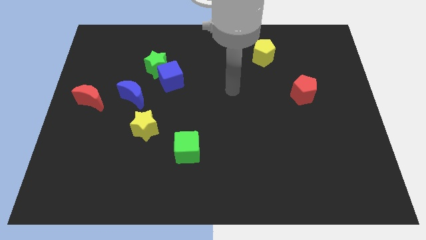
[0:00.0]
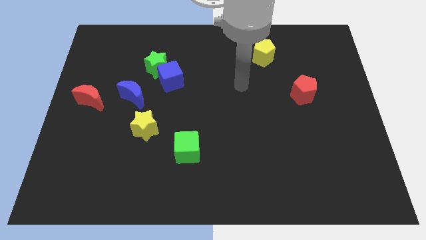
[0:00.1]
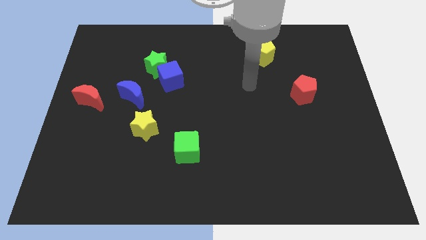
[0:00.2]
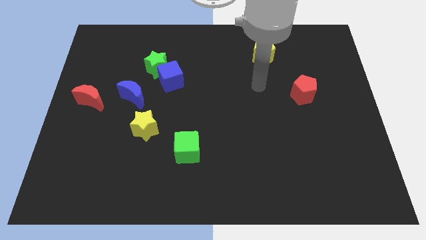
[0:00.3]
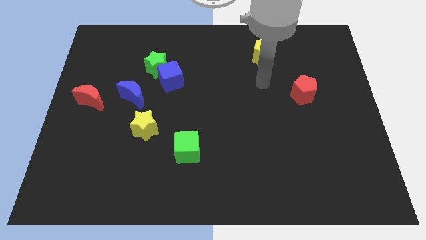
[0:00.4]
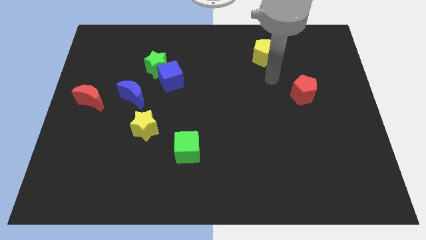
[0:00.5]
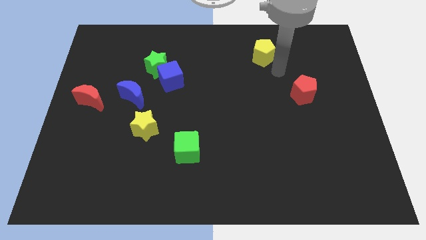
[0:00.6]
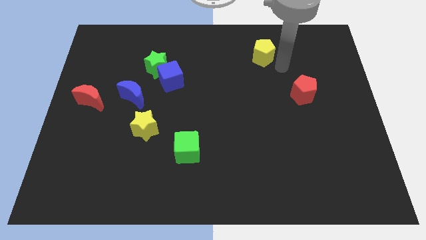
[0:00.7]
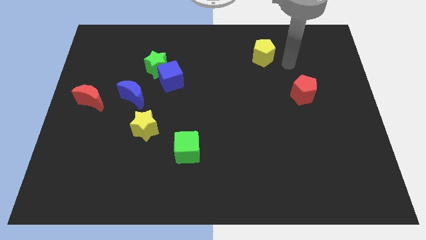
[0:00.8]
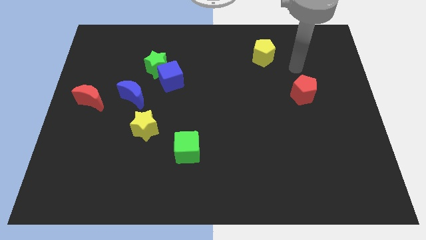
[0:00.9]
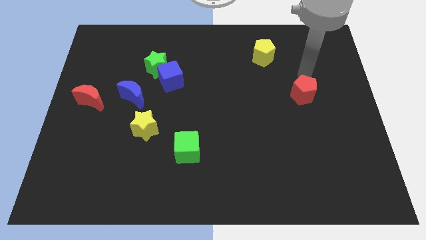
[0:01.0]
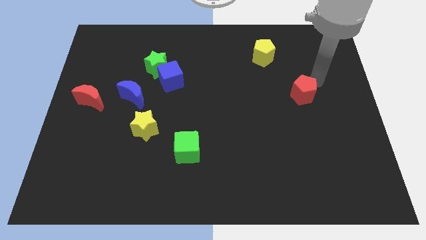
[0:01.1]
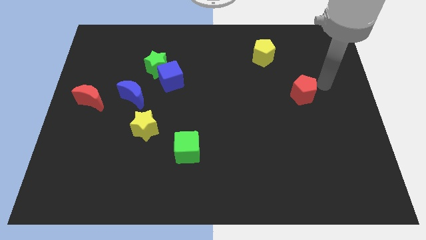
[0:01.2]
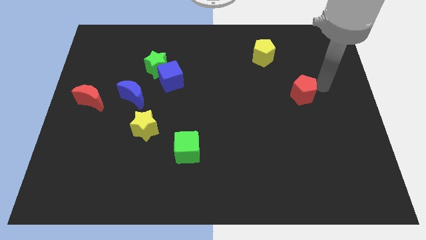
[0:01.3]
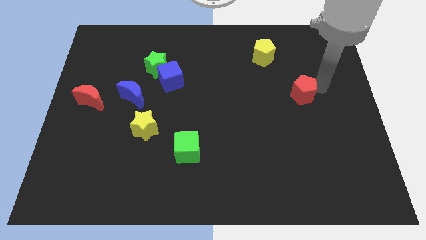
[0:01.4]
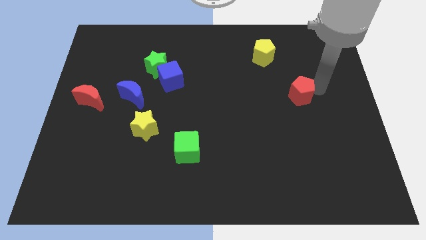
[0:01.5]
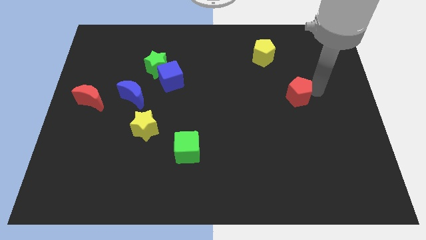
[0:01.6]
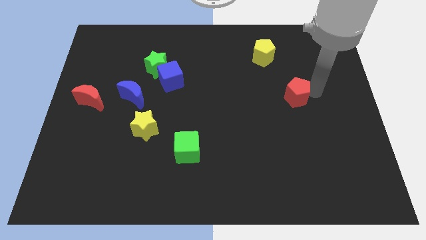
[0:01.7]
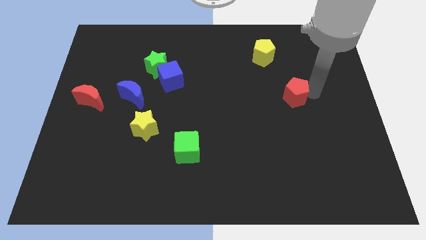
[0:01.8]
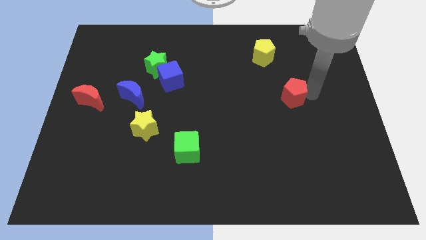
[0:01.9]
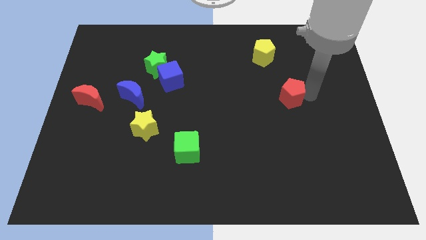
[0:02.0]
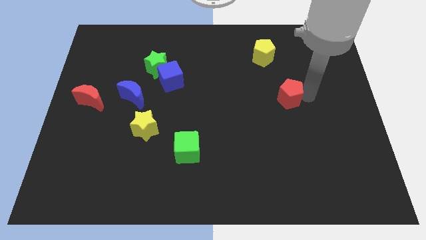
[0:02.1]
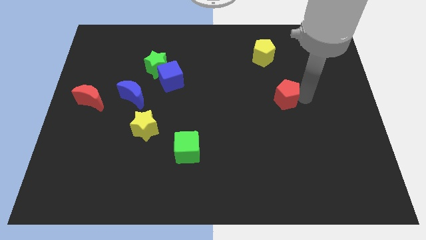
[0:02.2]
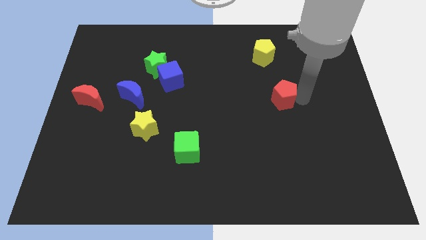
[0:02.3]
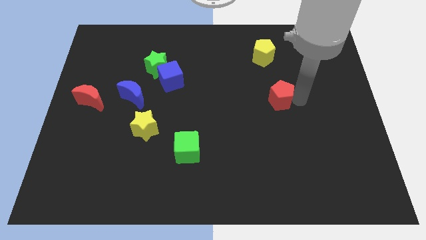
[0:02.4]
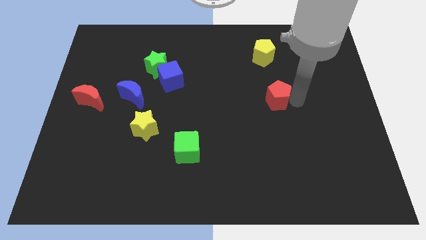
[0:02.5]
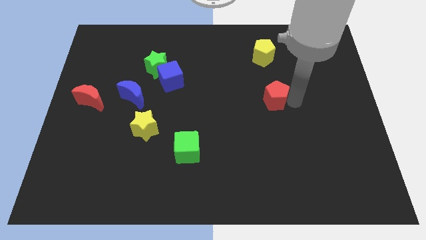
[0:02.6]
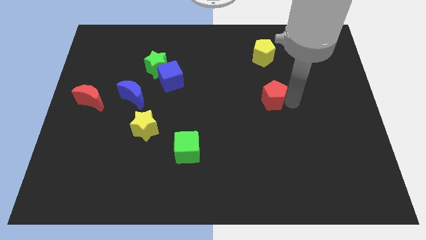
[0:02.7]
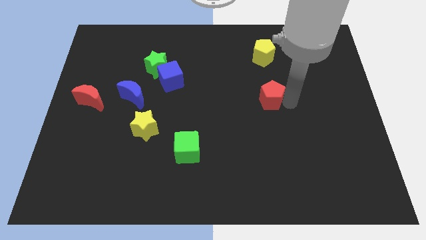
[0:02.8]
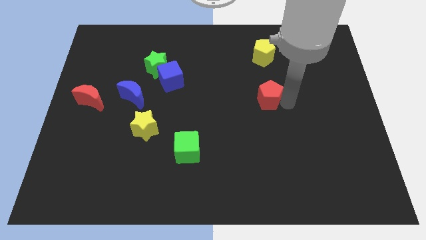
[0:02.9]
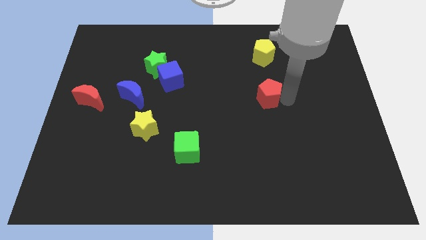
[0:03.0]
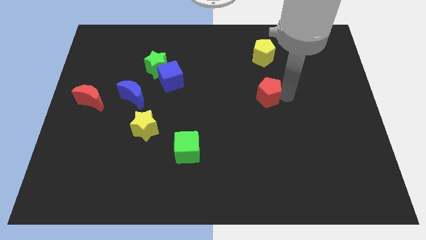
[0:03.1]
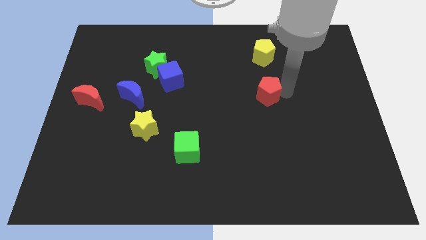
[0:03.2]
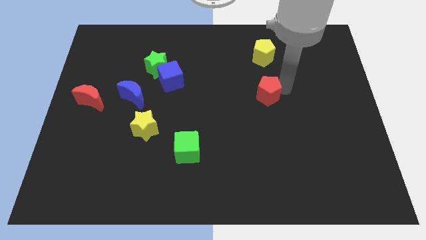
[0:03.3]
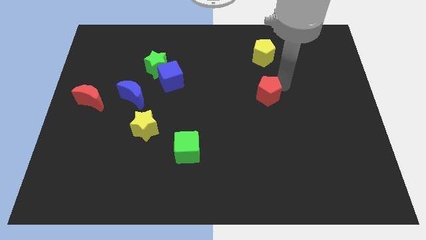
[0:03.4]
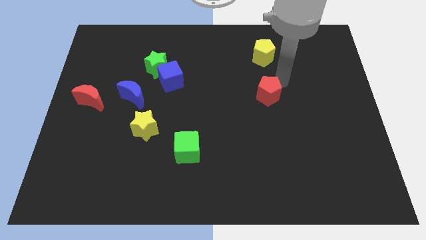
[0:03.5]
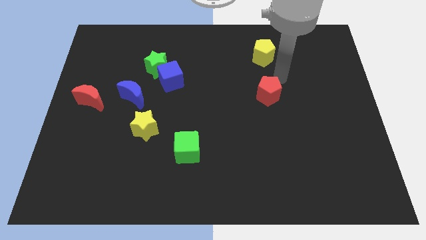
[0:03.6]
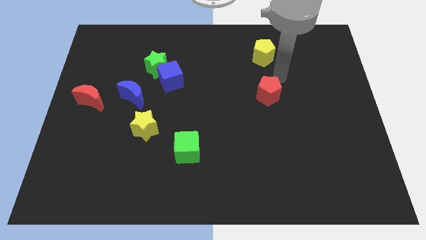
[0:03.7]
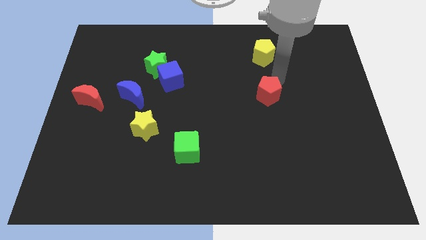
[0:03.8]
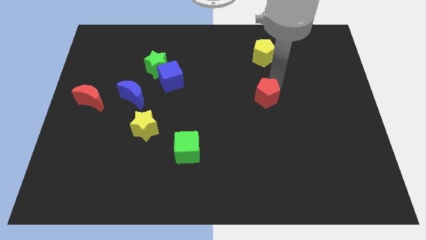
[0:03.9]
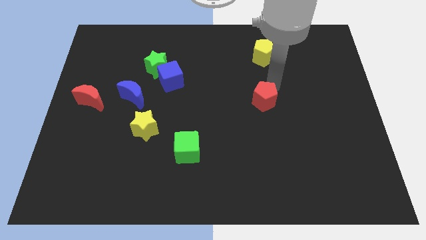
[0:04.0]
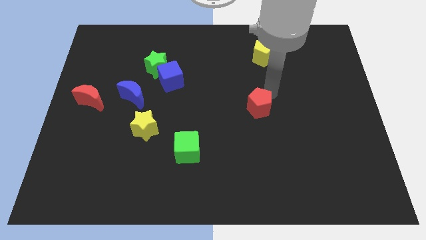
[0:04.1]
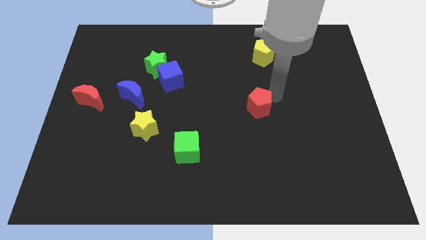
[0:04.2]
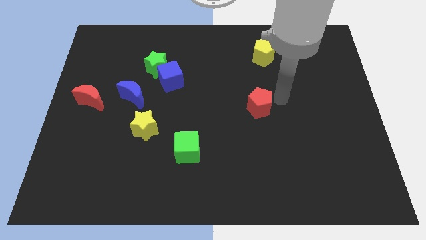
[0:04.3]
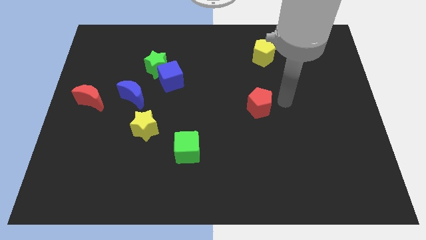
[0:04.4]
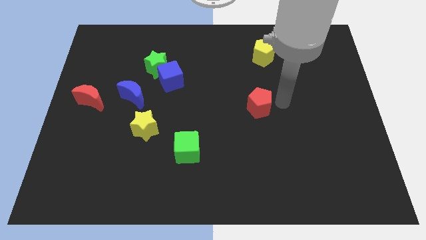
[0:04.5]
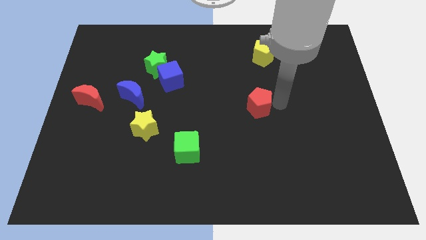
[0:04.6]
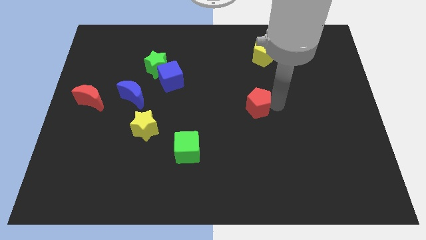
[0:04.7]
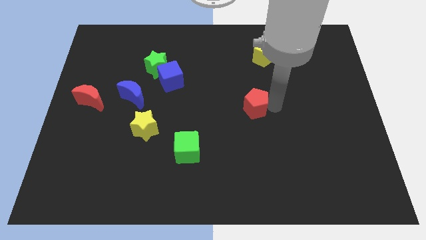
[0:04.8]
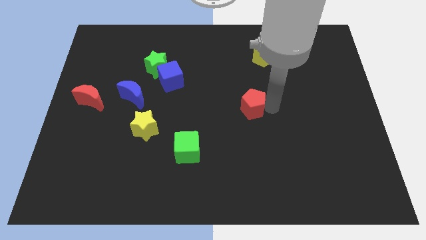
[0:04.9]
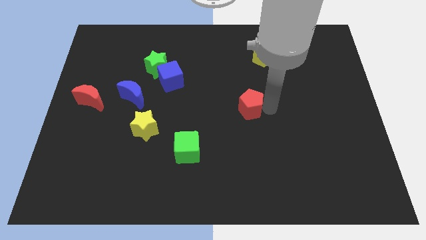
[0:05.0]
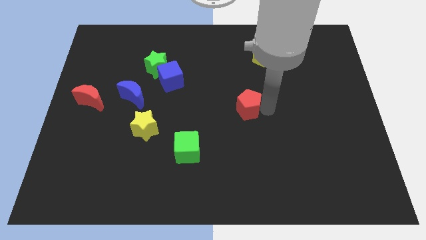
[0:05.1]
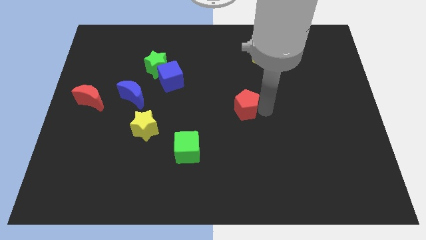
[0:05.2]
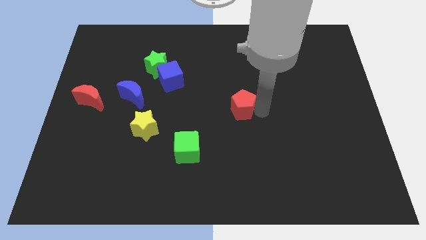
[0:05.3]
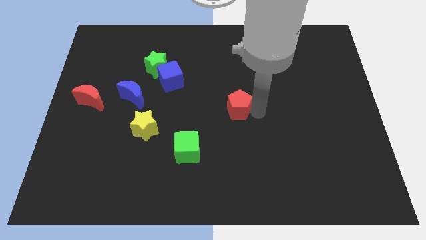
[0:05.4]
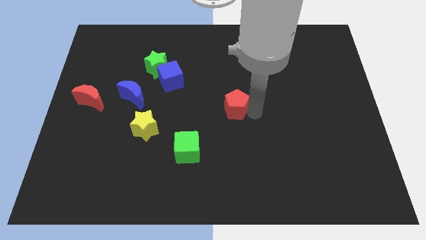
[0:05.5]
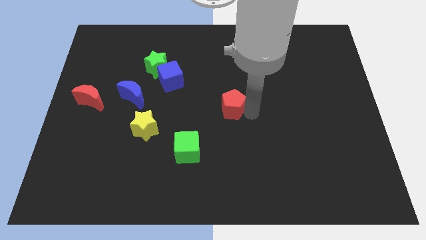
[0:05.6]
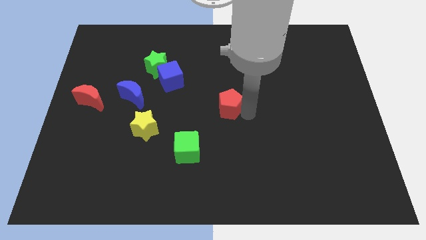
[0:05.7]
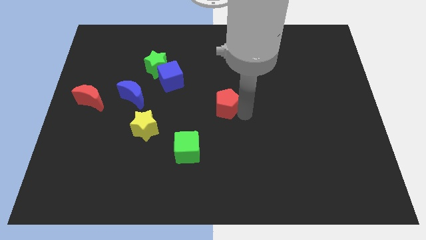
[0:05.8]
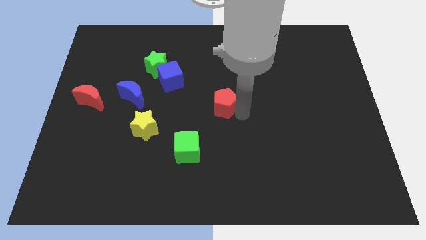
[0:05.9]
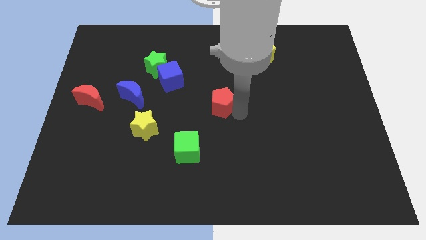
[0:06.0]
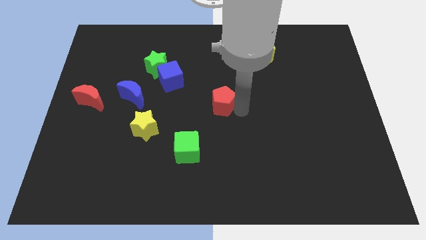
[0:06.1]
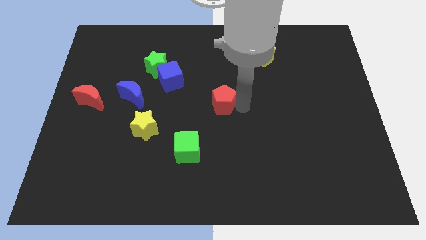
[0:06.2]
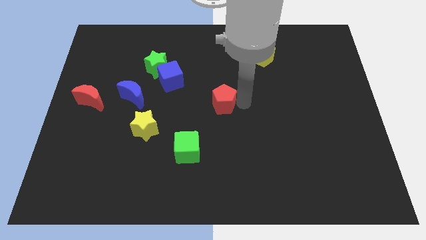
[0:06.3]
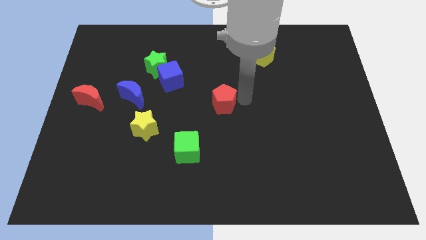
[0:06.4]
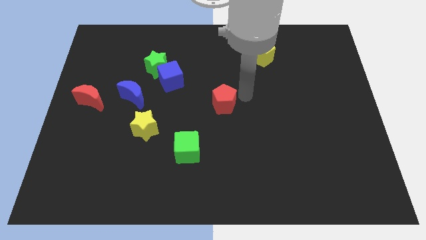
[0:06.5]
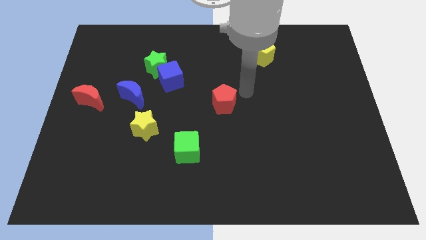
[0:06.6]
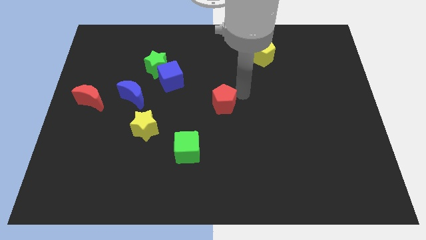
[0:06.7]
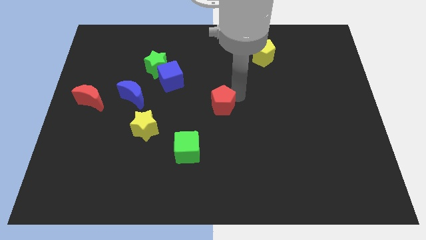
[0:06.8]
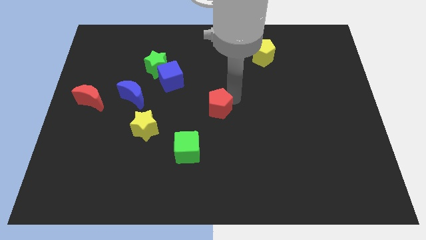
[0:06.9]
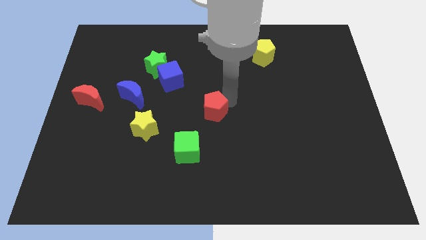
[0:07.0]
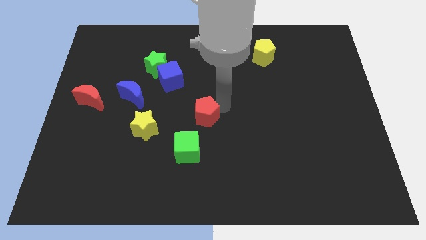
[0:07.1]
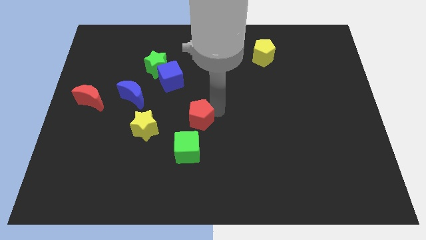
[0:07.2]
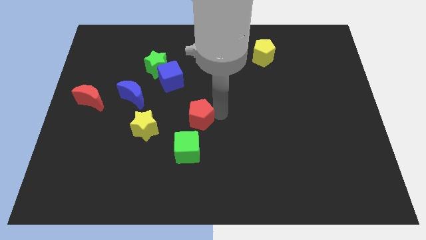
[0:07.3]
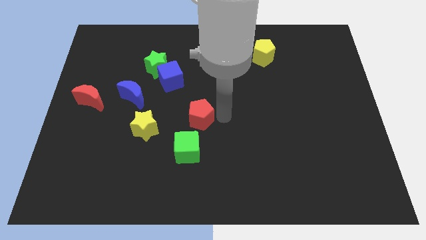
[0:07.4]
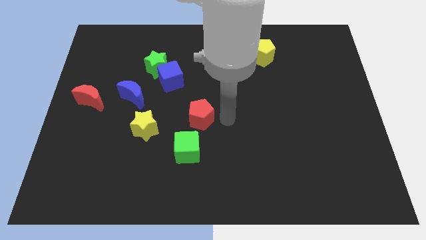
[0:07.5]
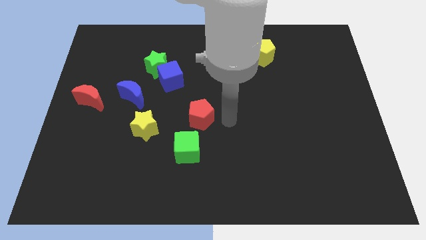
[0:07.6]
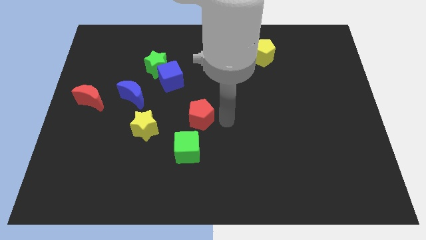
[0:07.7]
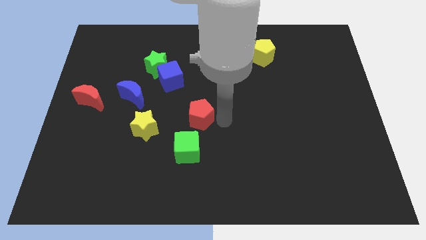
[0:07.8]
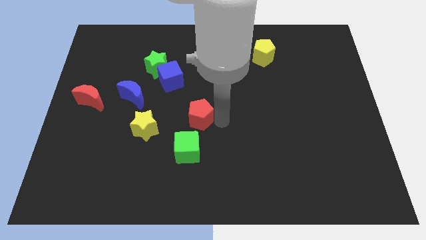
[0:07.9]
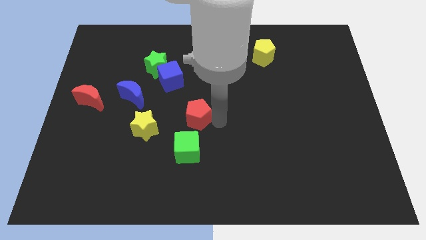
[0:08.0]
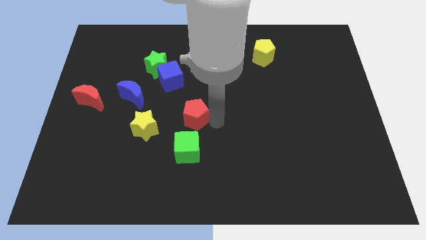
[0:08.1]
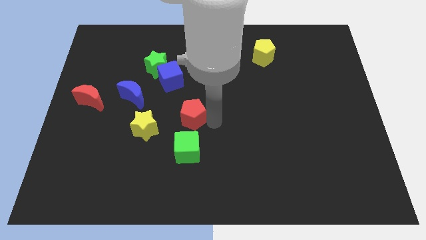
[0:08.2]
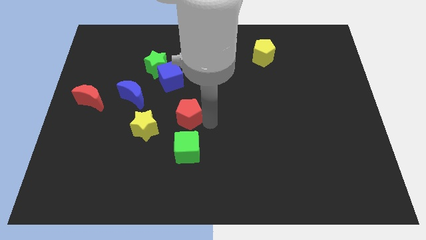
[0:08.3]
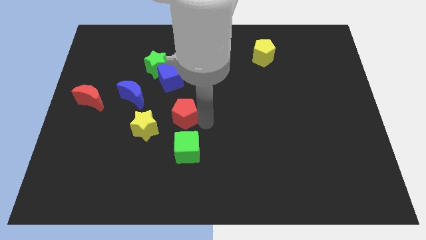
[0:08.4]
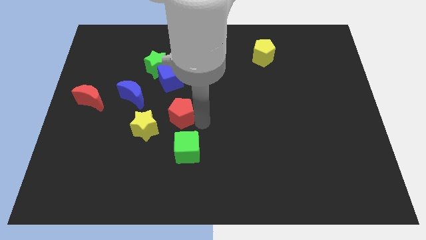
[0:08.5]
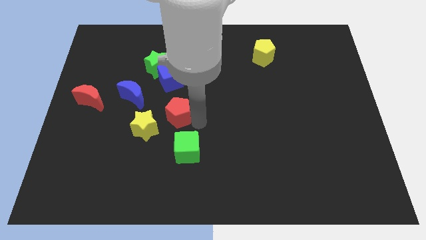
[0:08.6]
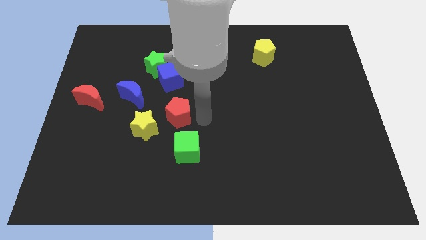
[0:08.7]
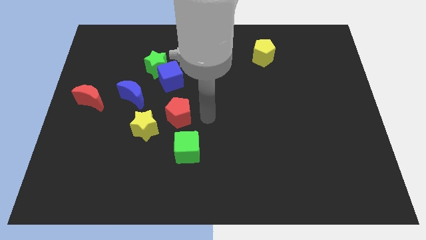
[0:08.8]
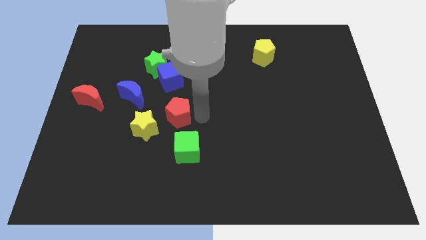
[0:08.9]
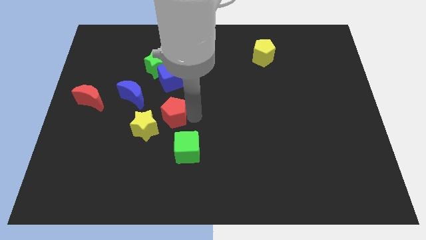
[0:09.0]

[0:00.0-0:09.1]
move the red pentagon to the bottom right side of the blue moon
